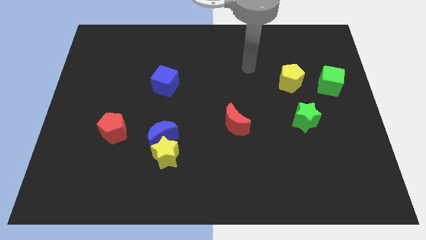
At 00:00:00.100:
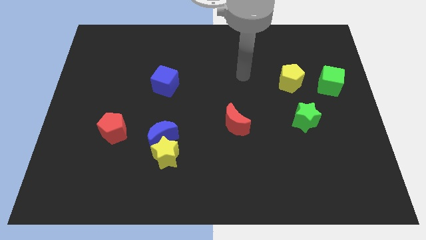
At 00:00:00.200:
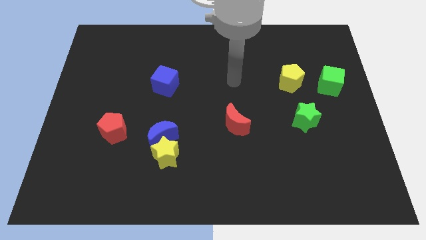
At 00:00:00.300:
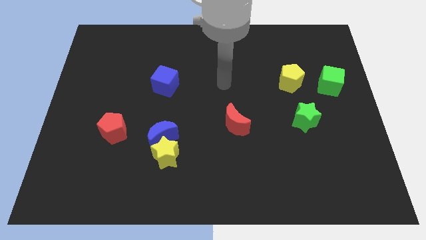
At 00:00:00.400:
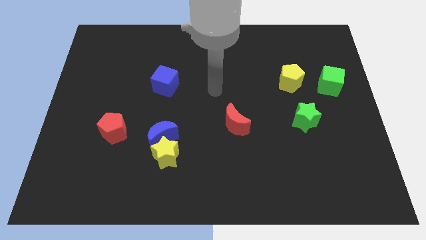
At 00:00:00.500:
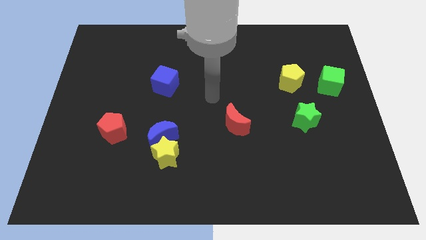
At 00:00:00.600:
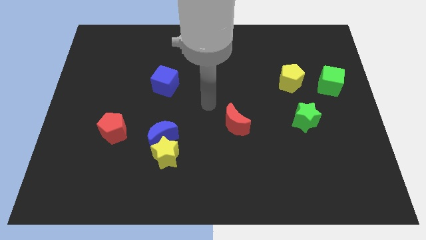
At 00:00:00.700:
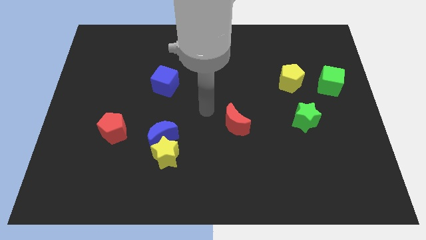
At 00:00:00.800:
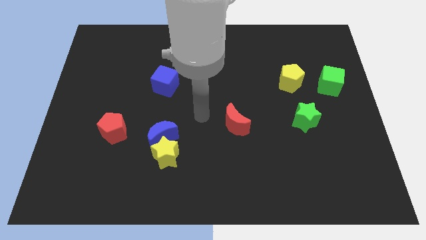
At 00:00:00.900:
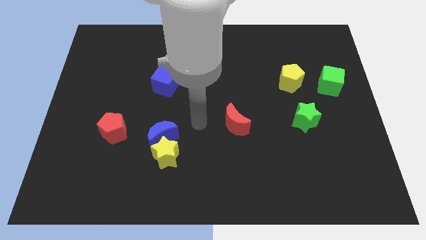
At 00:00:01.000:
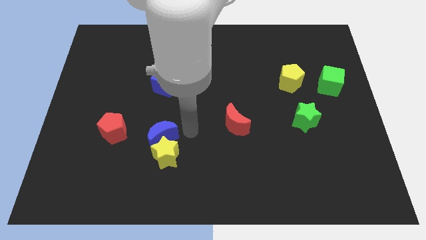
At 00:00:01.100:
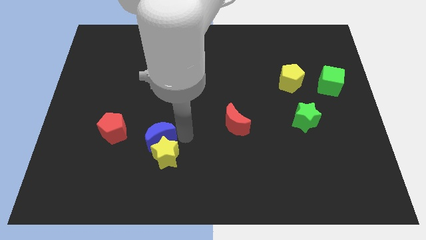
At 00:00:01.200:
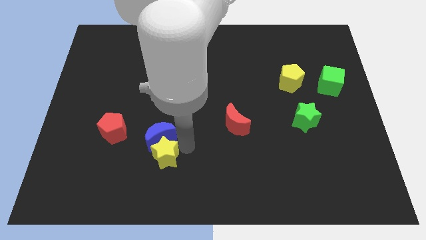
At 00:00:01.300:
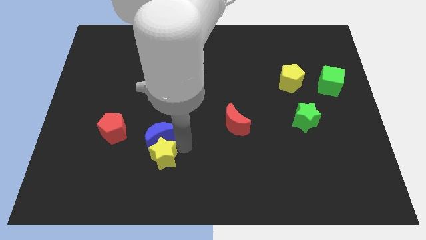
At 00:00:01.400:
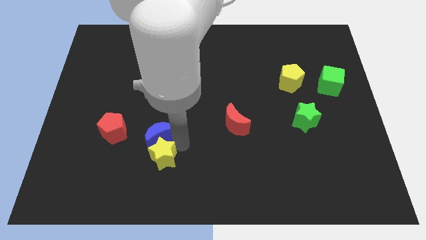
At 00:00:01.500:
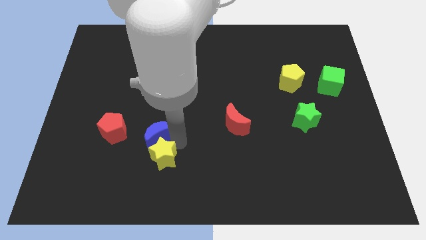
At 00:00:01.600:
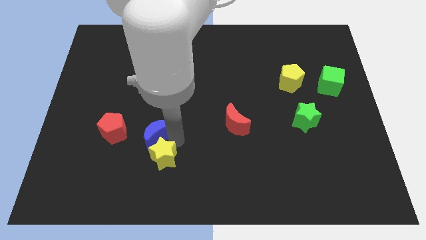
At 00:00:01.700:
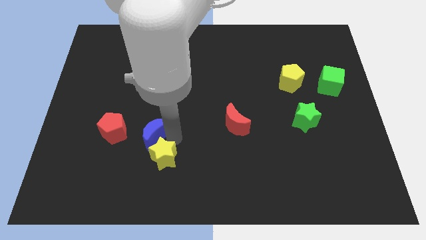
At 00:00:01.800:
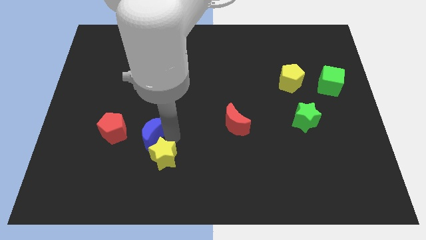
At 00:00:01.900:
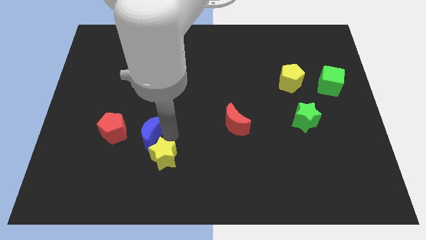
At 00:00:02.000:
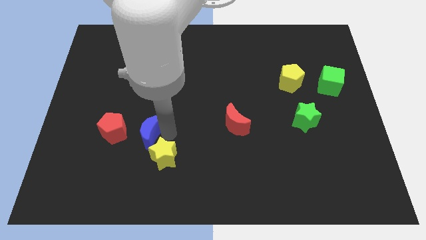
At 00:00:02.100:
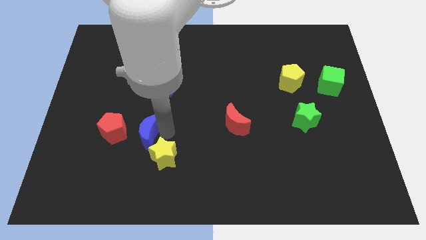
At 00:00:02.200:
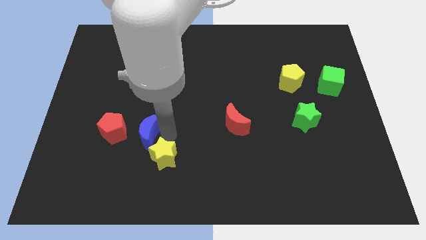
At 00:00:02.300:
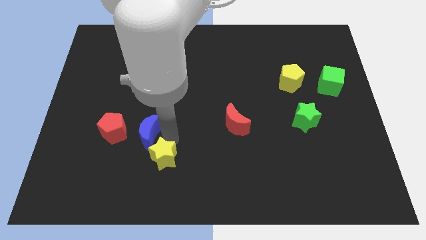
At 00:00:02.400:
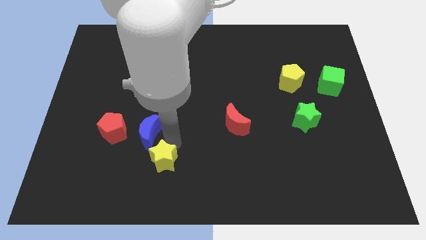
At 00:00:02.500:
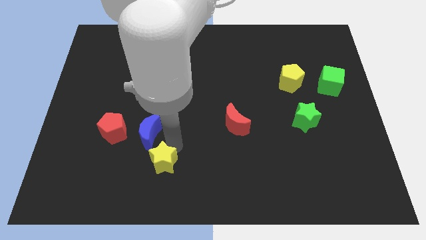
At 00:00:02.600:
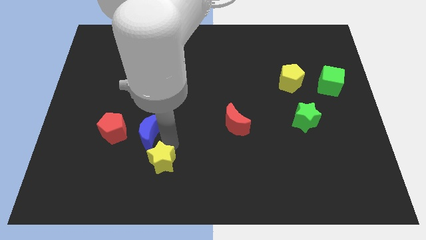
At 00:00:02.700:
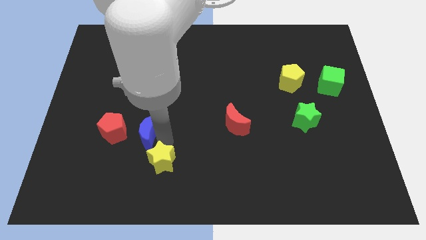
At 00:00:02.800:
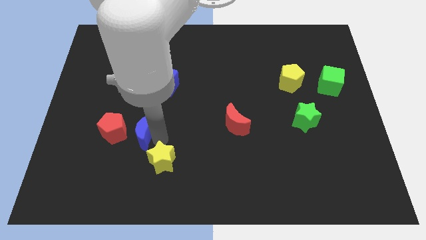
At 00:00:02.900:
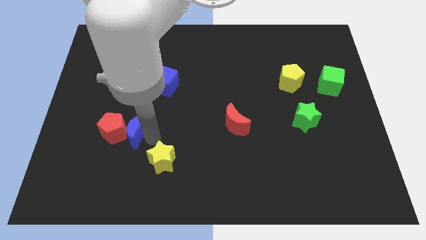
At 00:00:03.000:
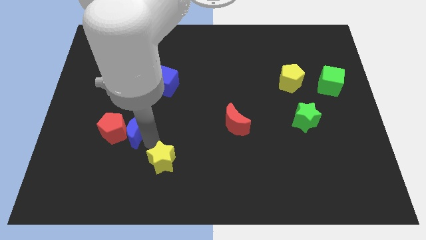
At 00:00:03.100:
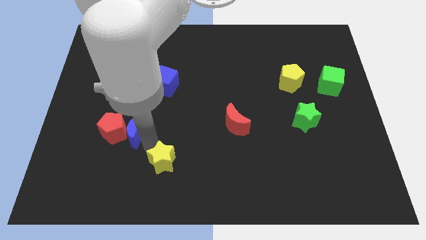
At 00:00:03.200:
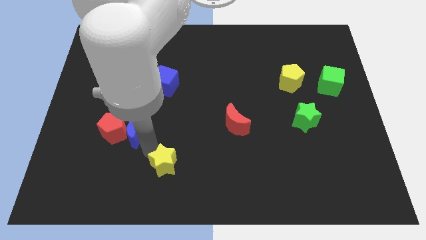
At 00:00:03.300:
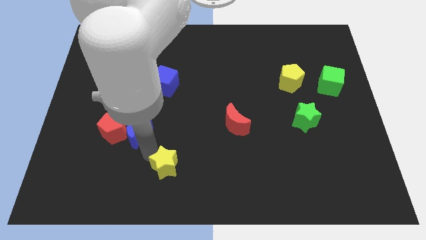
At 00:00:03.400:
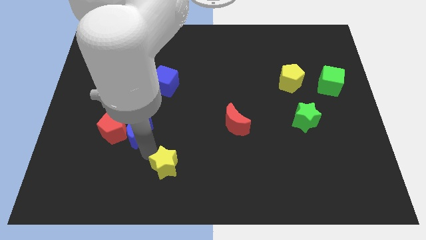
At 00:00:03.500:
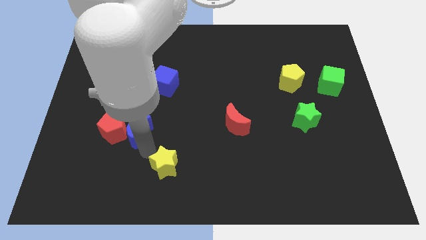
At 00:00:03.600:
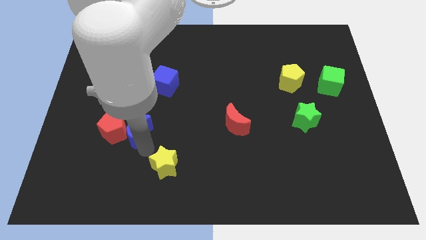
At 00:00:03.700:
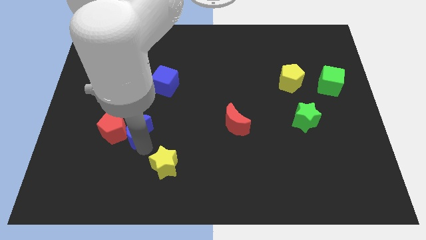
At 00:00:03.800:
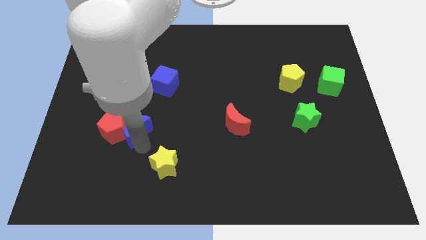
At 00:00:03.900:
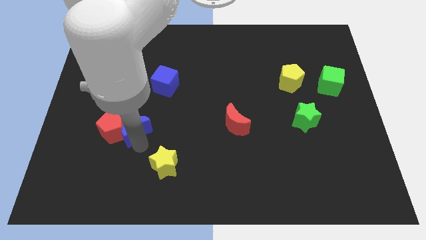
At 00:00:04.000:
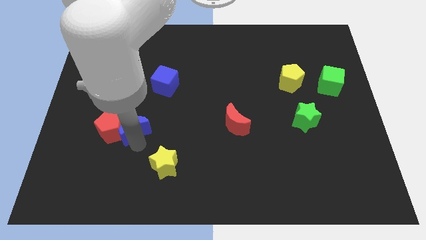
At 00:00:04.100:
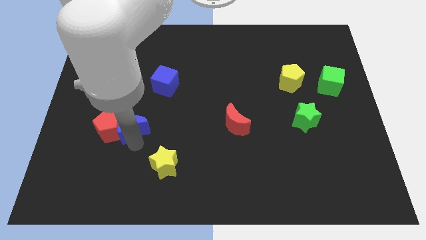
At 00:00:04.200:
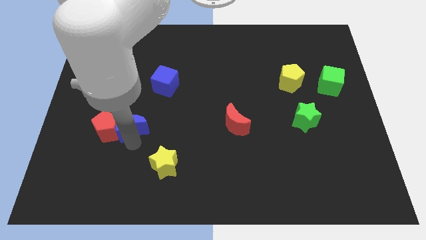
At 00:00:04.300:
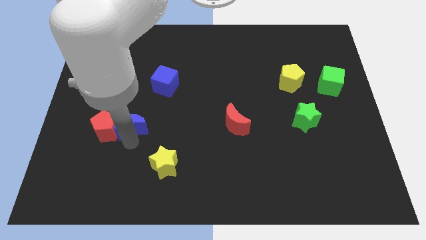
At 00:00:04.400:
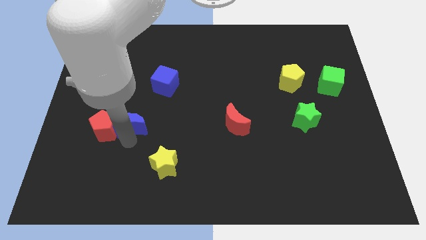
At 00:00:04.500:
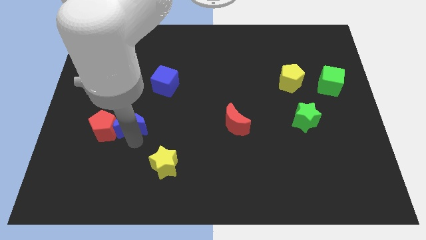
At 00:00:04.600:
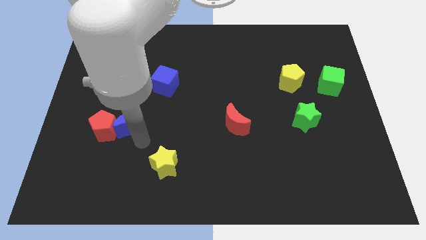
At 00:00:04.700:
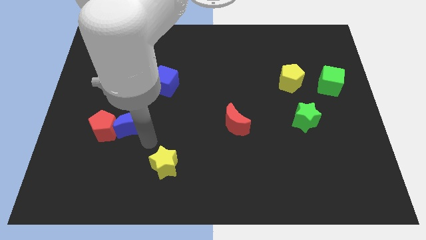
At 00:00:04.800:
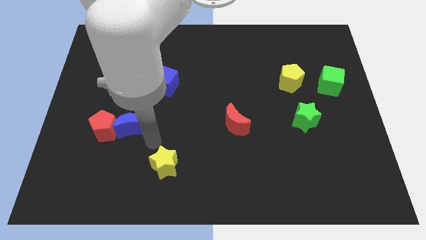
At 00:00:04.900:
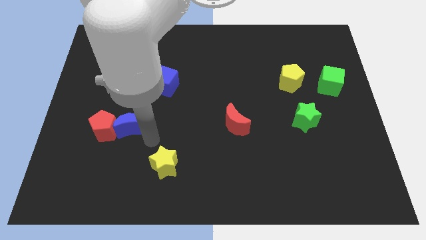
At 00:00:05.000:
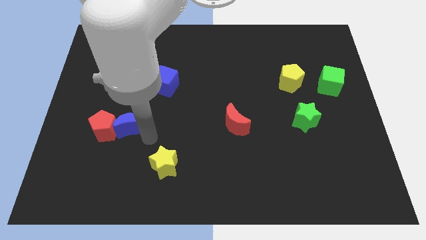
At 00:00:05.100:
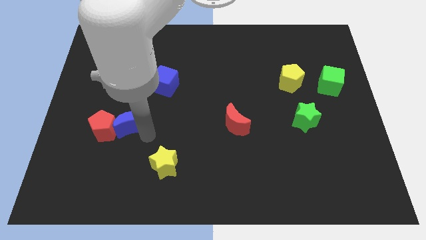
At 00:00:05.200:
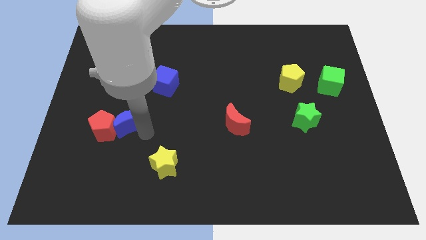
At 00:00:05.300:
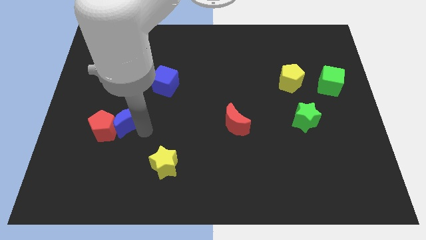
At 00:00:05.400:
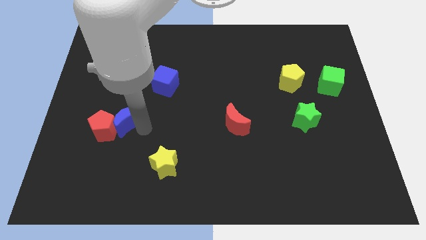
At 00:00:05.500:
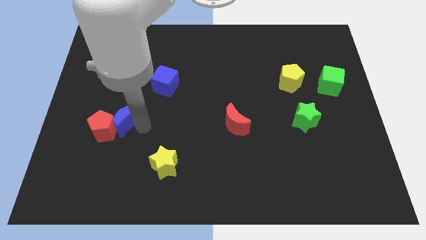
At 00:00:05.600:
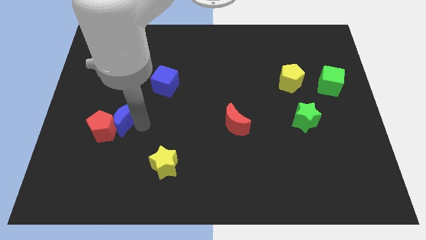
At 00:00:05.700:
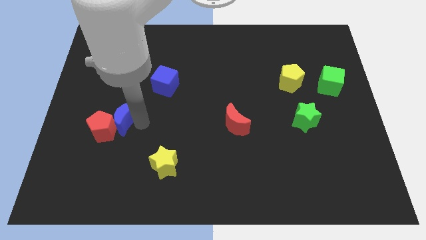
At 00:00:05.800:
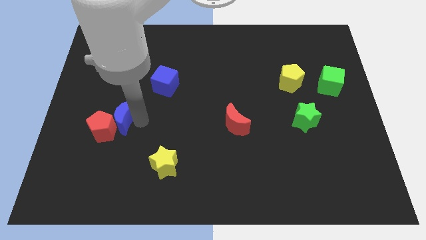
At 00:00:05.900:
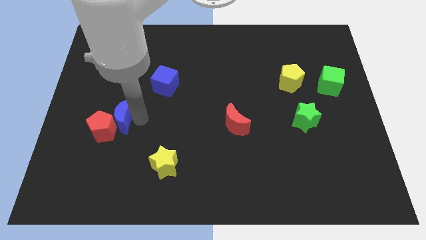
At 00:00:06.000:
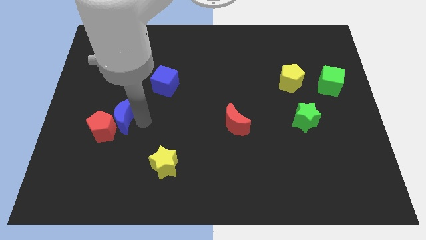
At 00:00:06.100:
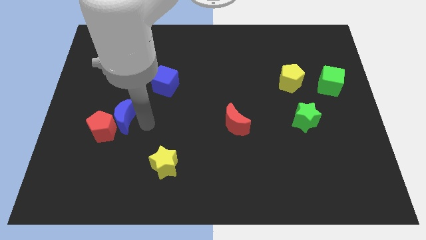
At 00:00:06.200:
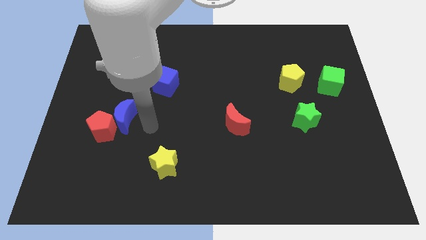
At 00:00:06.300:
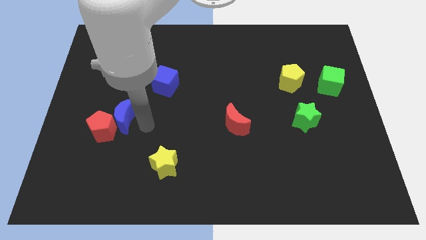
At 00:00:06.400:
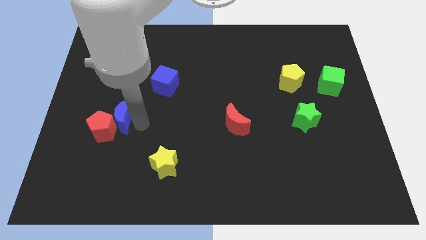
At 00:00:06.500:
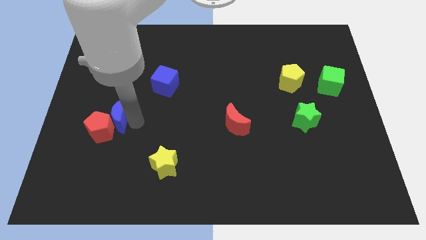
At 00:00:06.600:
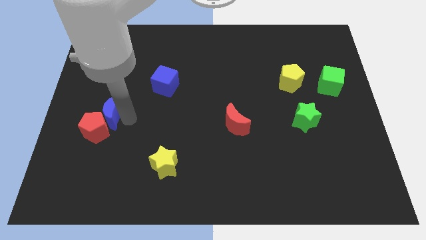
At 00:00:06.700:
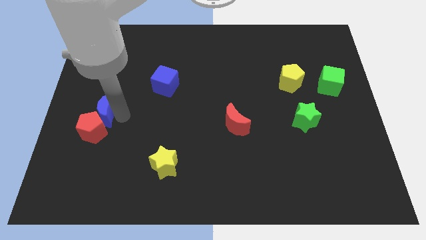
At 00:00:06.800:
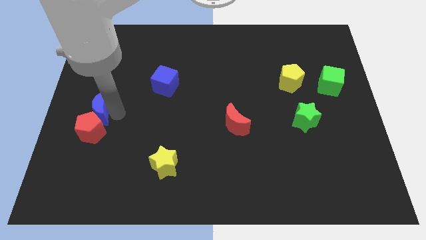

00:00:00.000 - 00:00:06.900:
move the blue moon to the center left
